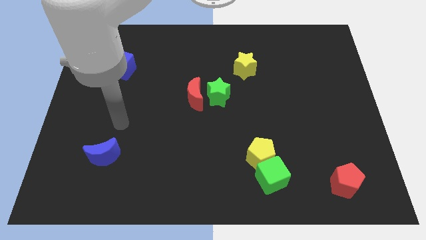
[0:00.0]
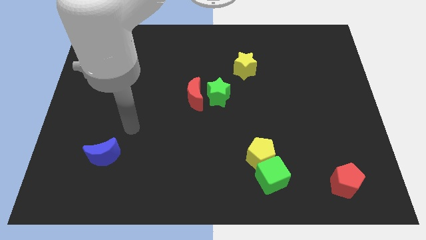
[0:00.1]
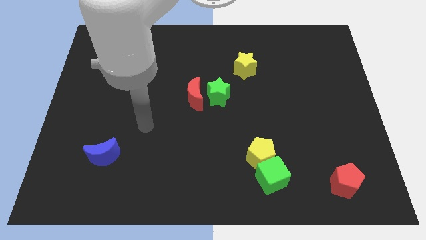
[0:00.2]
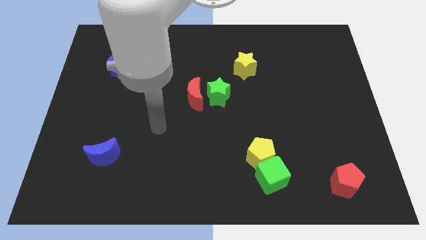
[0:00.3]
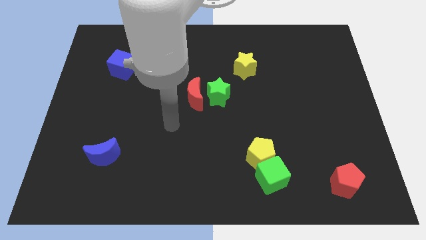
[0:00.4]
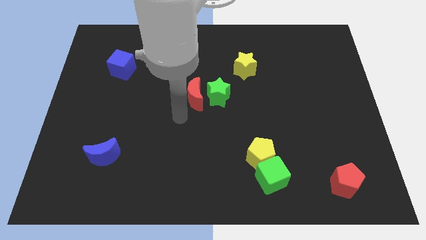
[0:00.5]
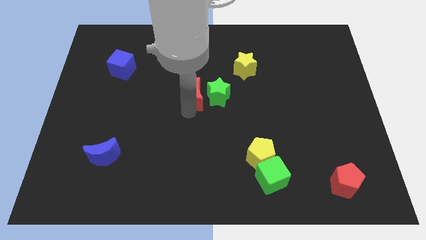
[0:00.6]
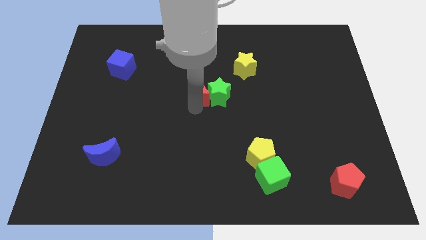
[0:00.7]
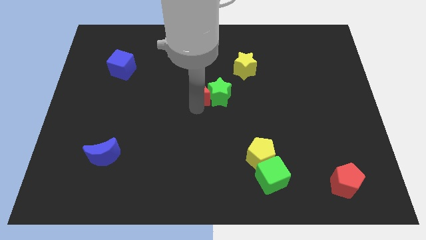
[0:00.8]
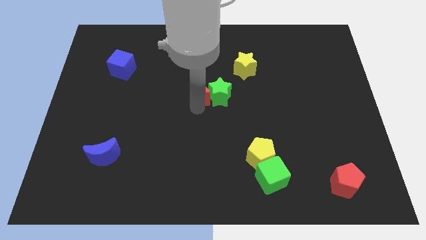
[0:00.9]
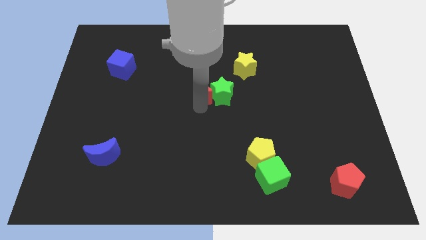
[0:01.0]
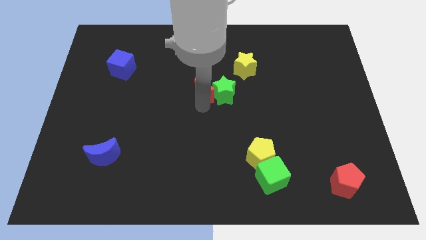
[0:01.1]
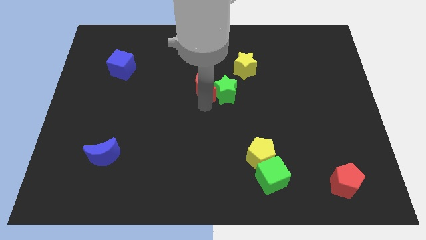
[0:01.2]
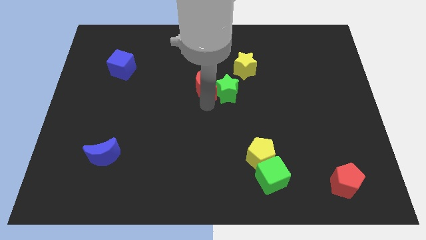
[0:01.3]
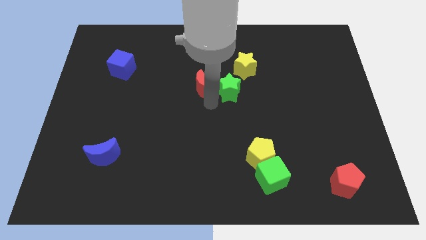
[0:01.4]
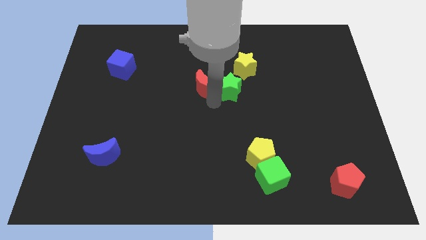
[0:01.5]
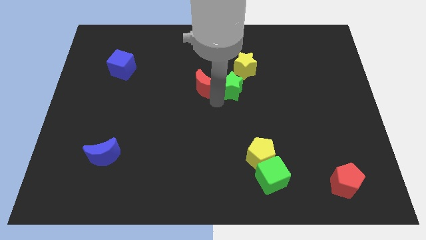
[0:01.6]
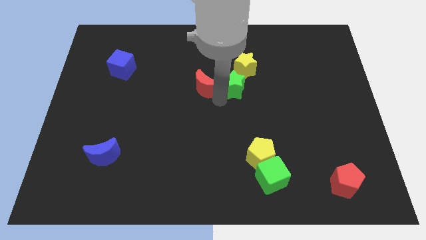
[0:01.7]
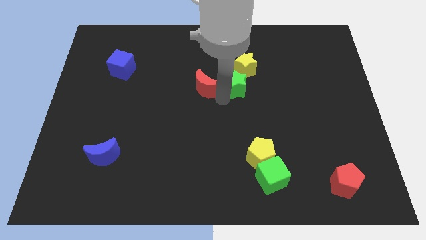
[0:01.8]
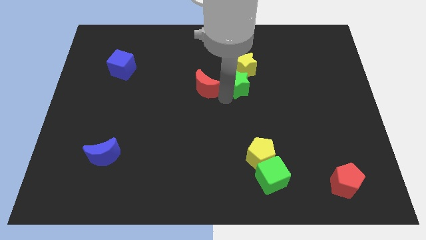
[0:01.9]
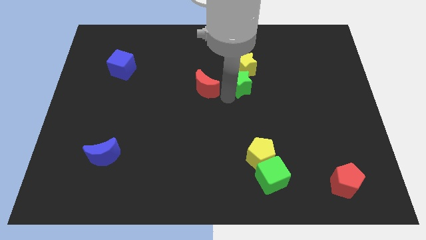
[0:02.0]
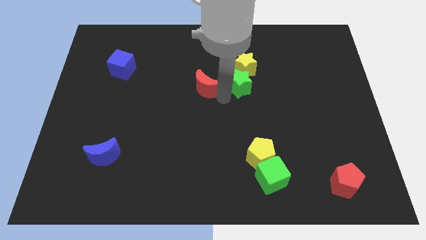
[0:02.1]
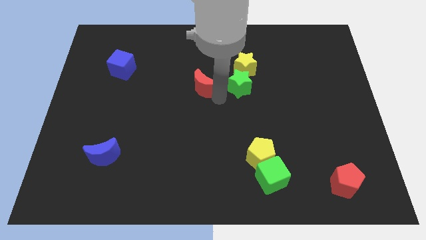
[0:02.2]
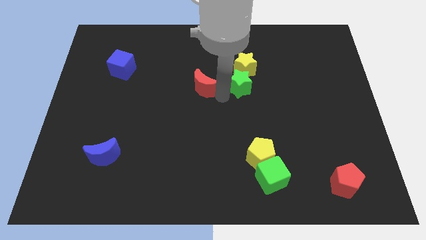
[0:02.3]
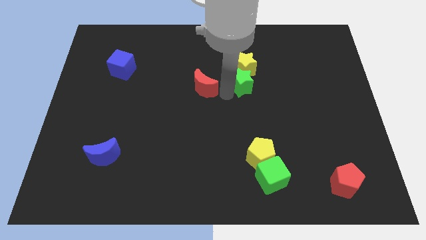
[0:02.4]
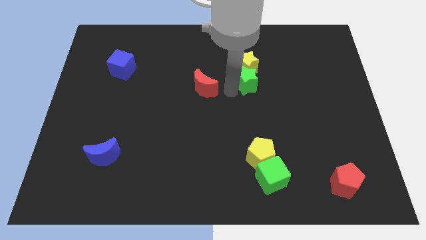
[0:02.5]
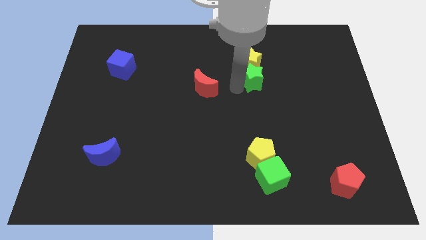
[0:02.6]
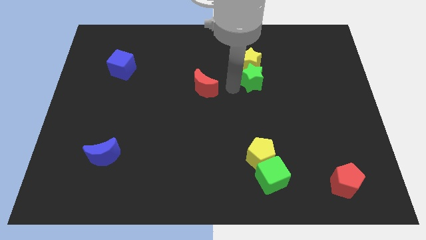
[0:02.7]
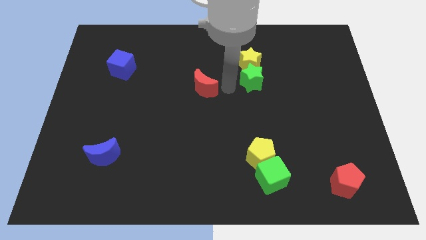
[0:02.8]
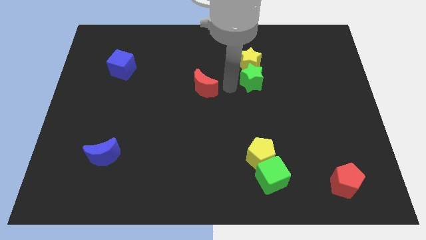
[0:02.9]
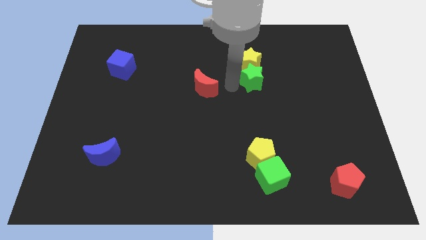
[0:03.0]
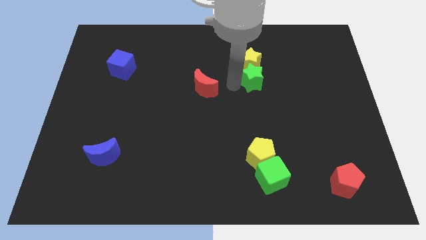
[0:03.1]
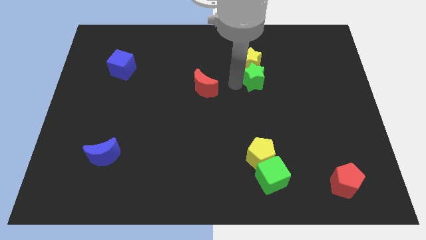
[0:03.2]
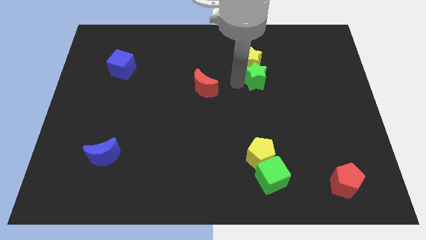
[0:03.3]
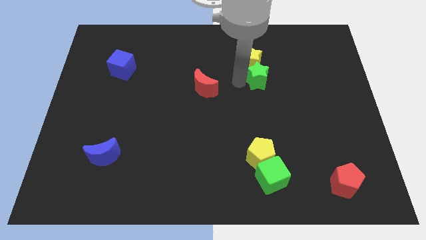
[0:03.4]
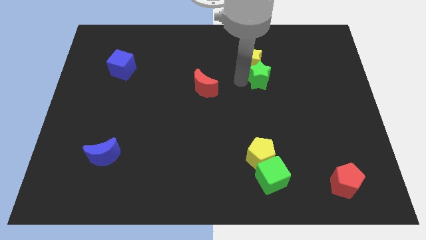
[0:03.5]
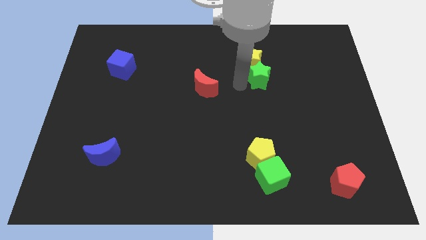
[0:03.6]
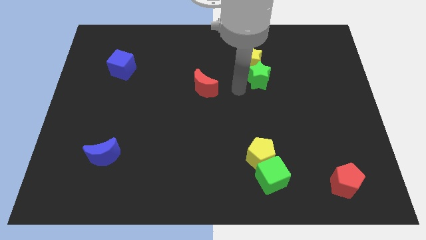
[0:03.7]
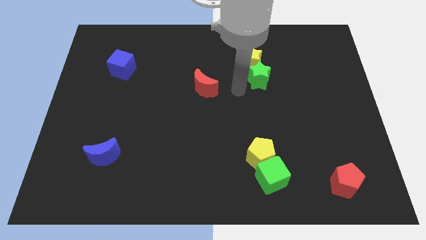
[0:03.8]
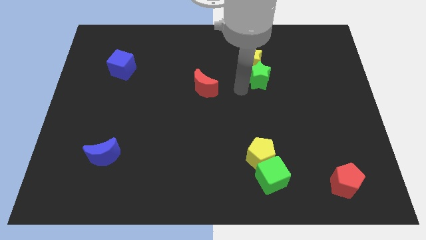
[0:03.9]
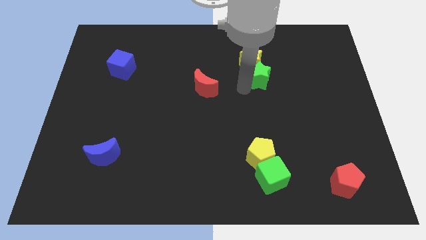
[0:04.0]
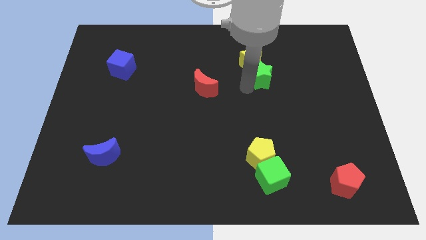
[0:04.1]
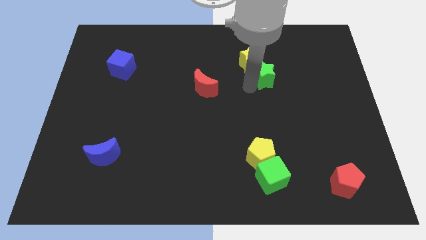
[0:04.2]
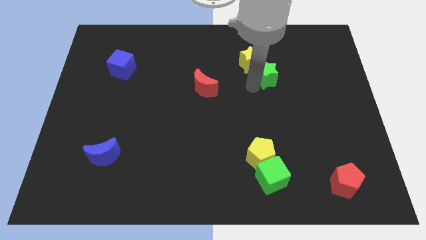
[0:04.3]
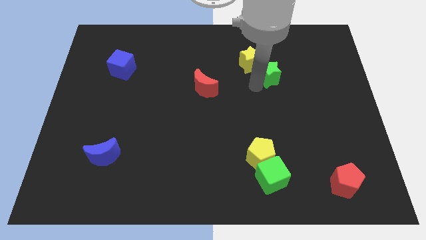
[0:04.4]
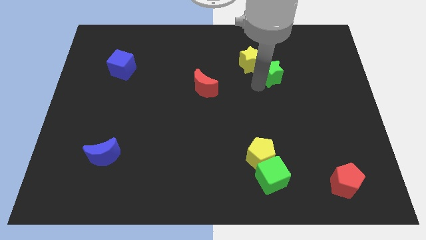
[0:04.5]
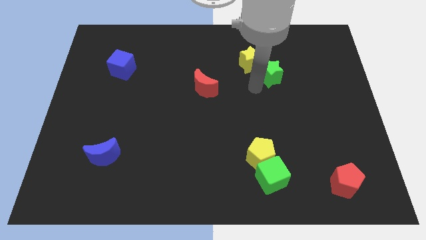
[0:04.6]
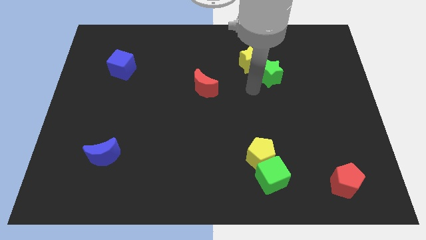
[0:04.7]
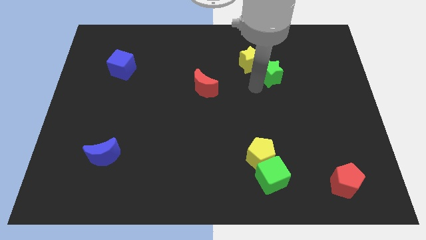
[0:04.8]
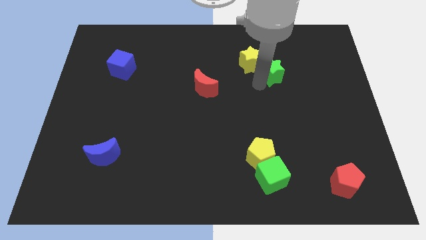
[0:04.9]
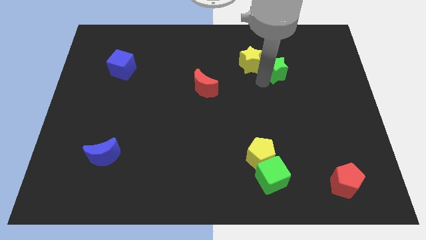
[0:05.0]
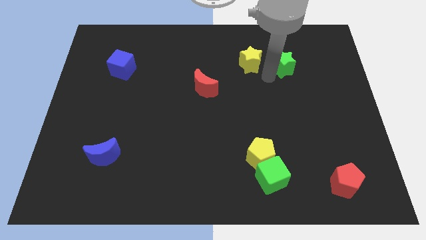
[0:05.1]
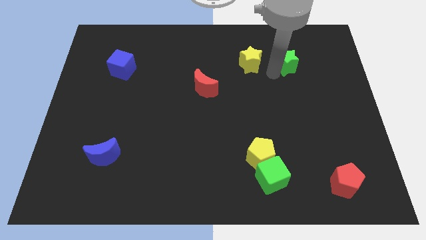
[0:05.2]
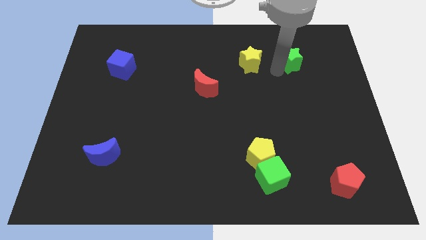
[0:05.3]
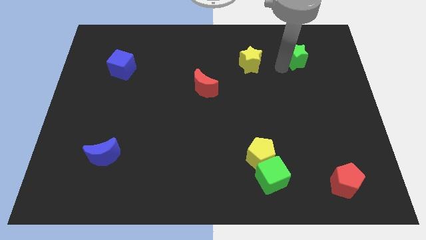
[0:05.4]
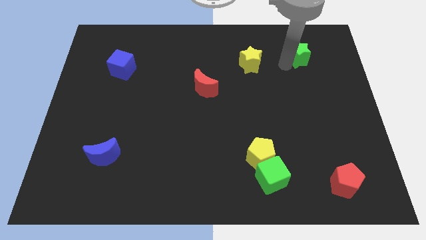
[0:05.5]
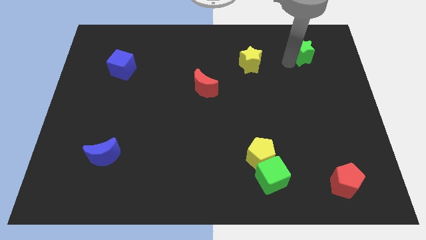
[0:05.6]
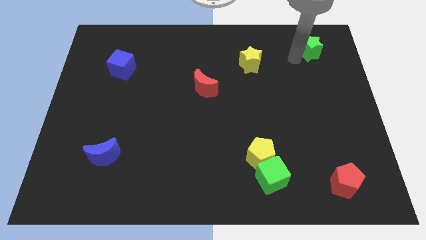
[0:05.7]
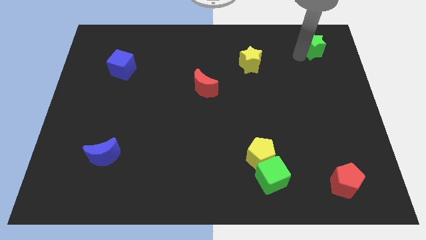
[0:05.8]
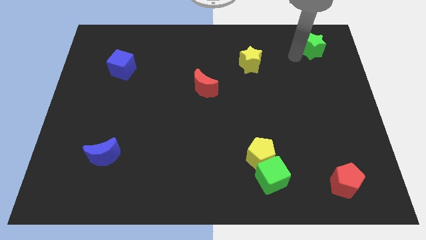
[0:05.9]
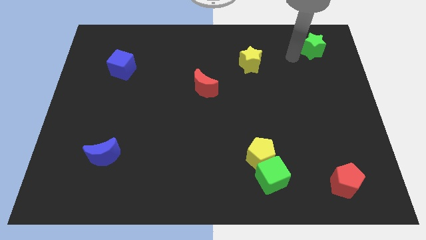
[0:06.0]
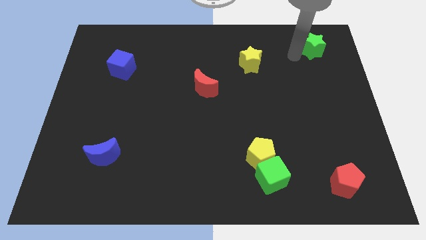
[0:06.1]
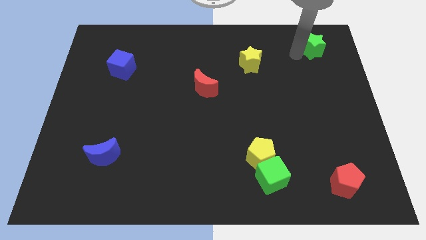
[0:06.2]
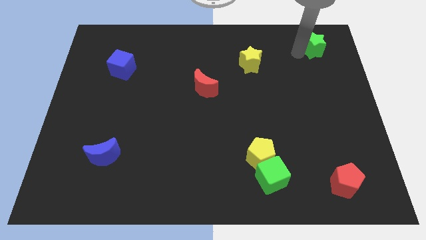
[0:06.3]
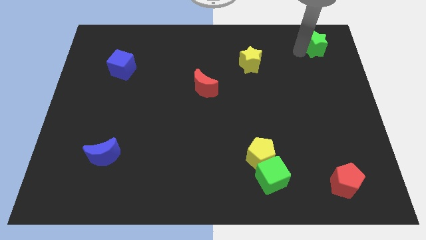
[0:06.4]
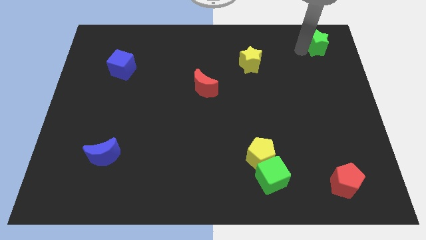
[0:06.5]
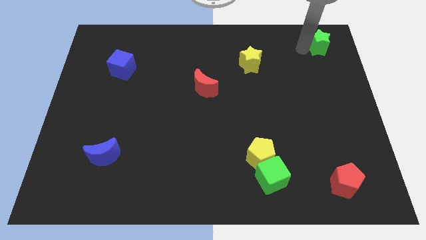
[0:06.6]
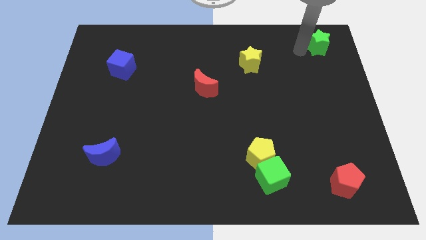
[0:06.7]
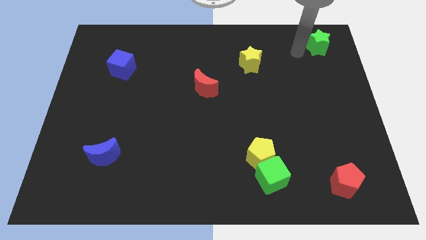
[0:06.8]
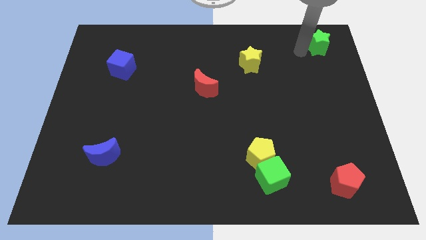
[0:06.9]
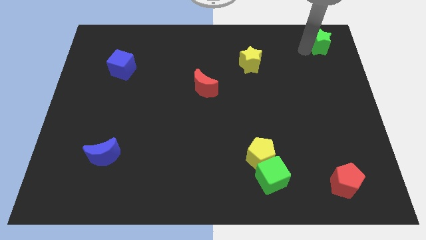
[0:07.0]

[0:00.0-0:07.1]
put the green star to the top right corner
